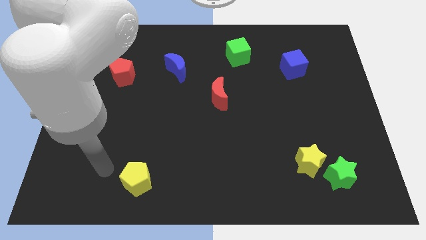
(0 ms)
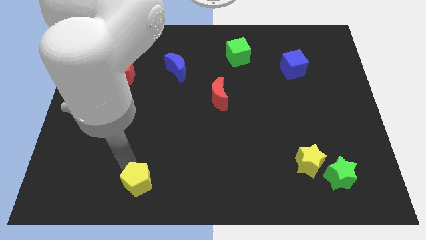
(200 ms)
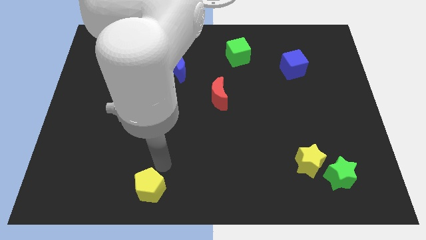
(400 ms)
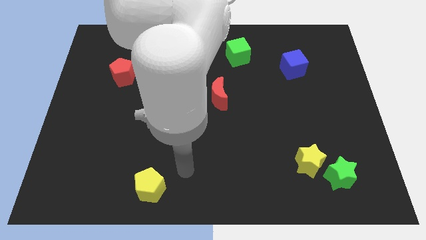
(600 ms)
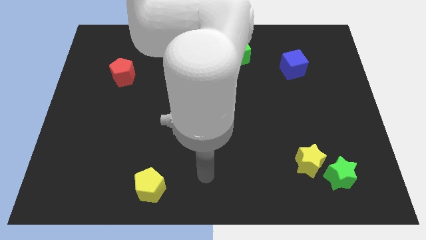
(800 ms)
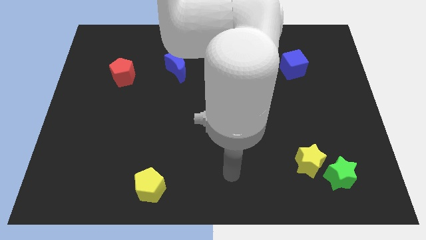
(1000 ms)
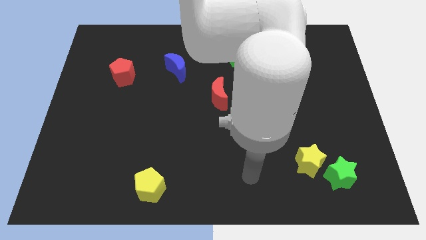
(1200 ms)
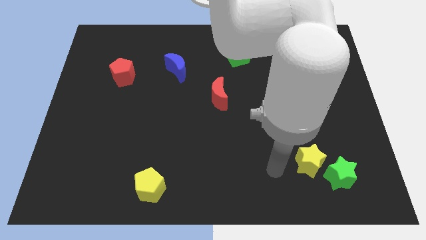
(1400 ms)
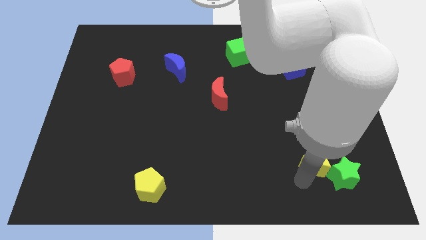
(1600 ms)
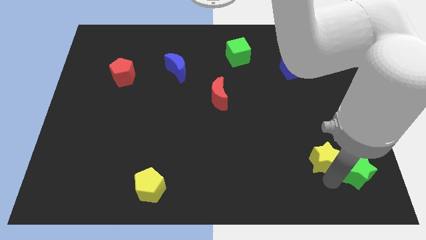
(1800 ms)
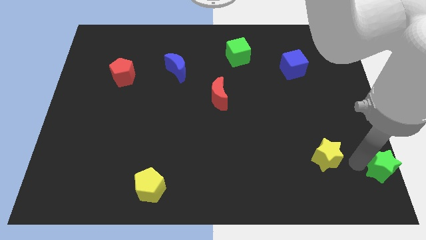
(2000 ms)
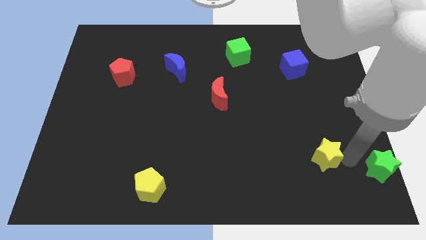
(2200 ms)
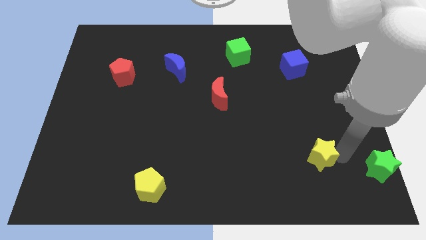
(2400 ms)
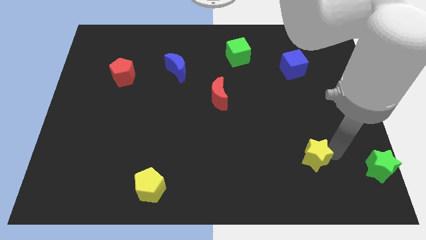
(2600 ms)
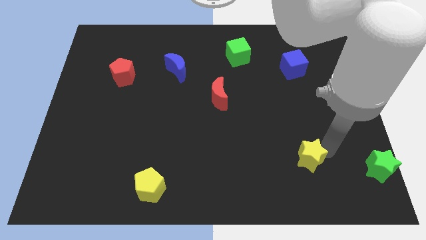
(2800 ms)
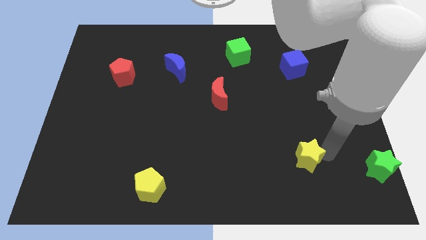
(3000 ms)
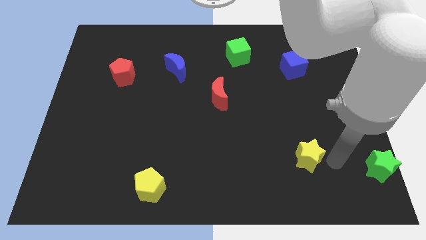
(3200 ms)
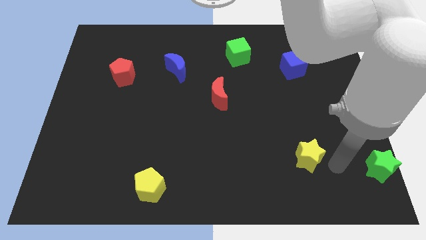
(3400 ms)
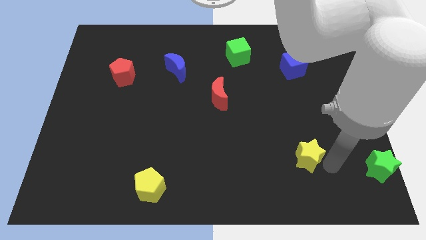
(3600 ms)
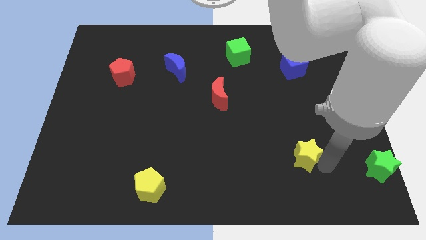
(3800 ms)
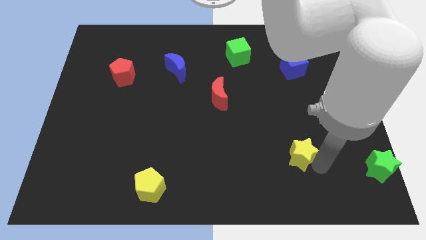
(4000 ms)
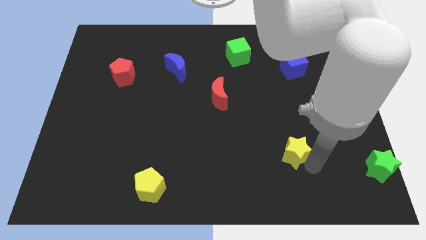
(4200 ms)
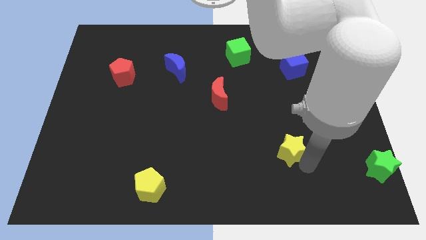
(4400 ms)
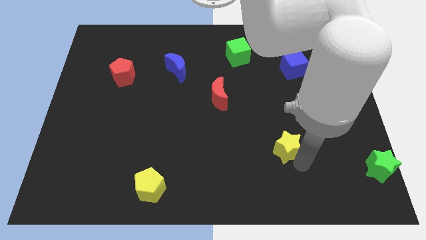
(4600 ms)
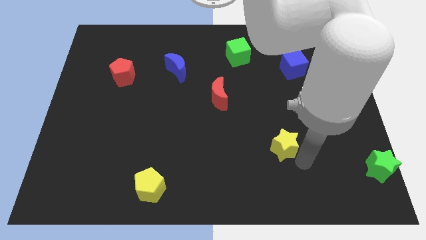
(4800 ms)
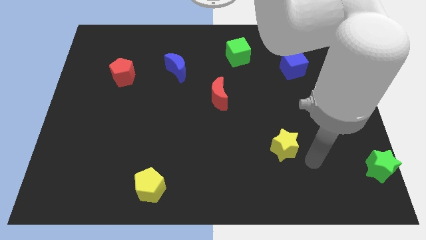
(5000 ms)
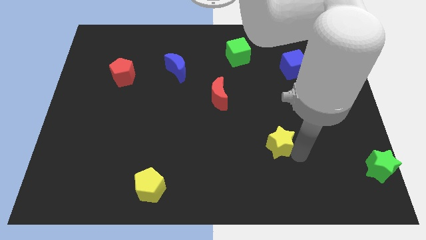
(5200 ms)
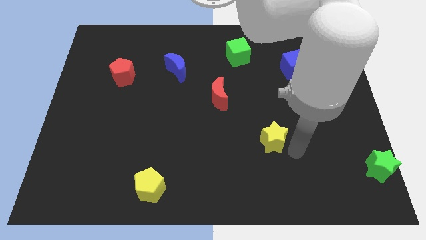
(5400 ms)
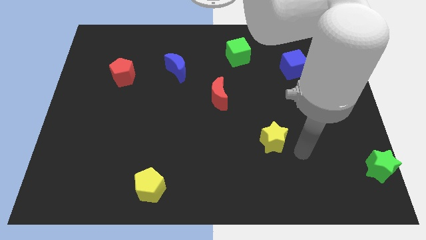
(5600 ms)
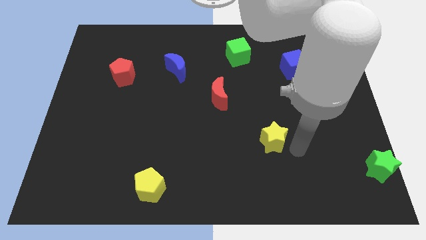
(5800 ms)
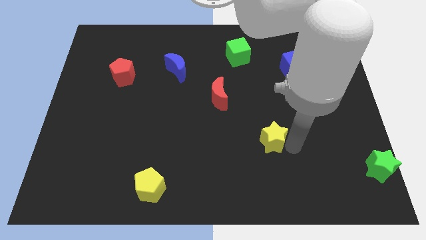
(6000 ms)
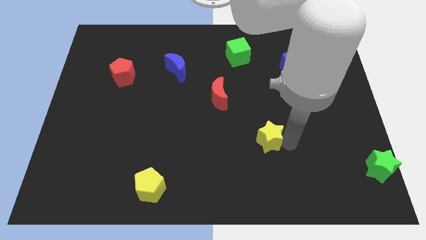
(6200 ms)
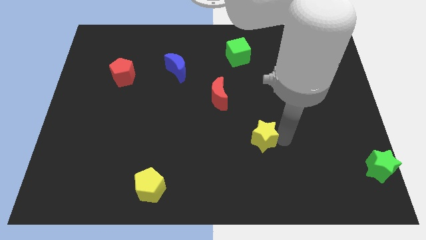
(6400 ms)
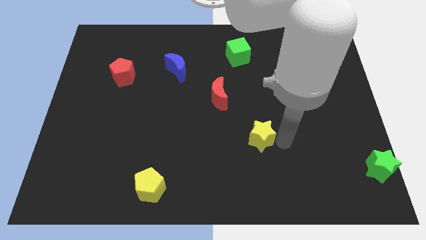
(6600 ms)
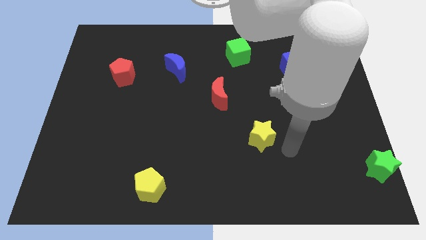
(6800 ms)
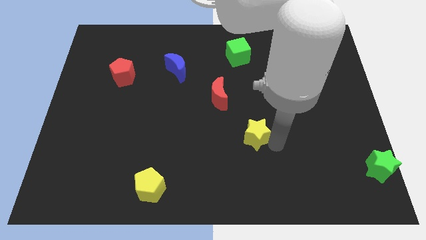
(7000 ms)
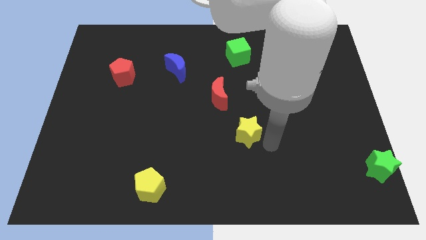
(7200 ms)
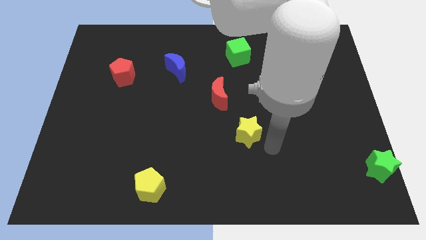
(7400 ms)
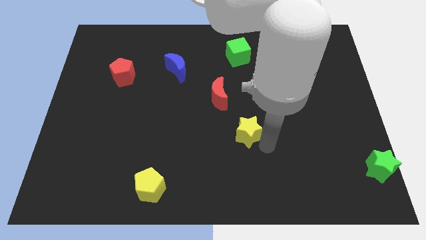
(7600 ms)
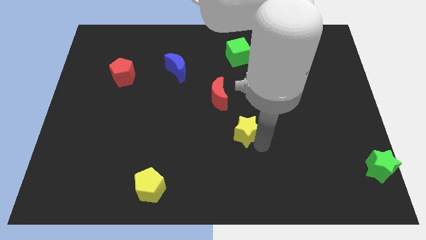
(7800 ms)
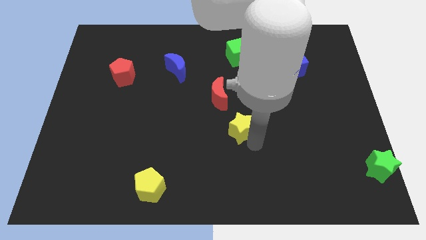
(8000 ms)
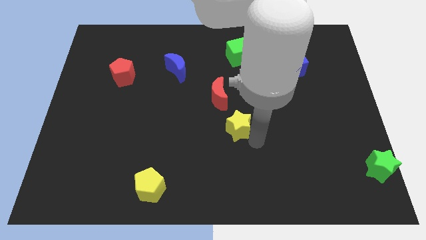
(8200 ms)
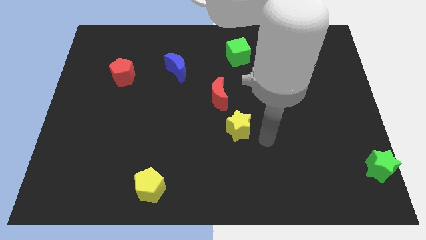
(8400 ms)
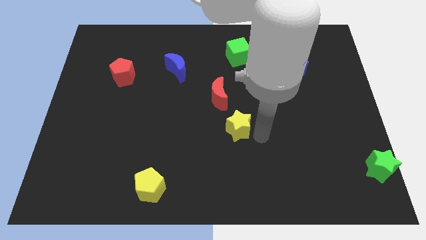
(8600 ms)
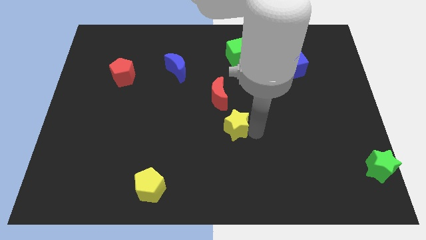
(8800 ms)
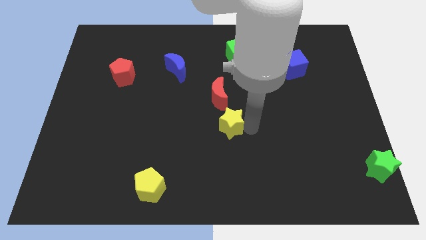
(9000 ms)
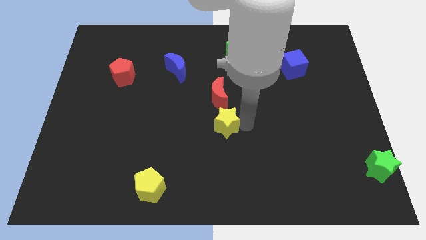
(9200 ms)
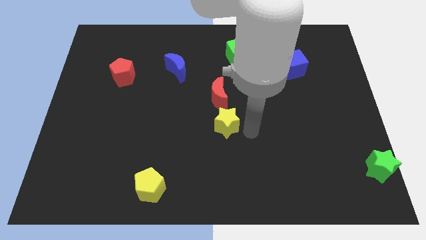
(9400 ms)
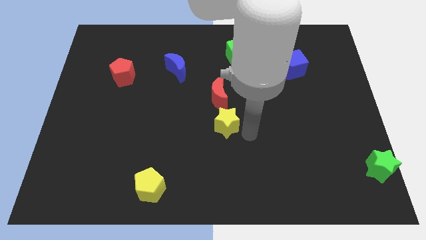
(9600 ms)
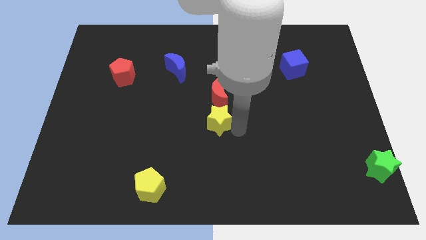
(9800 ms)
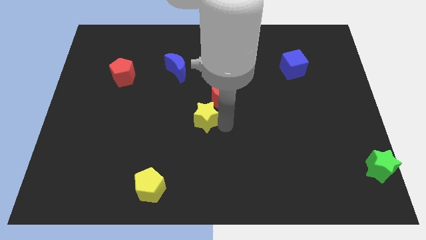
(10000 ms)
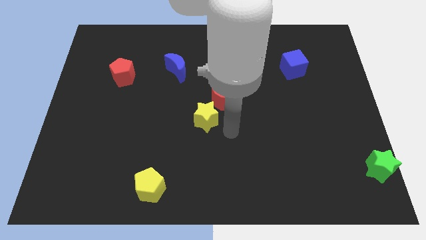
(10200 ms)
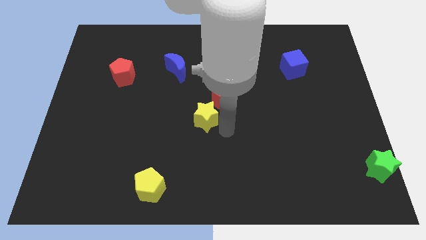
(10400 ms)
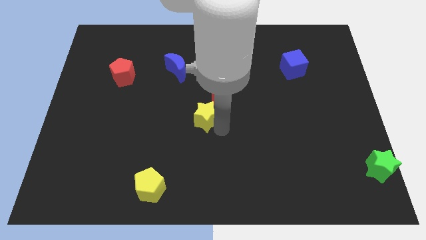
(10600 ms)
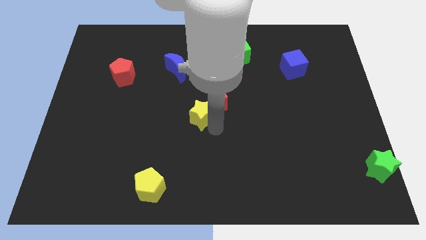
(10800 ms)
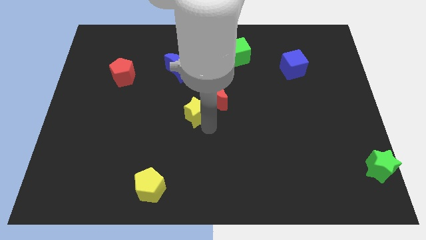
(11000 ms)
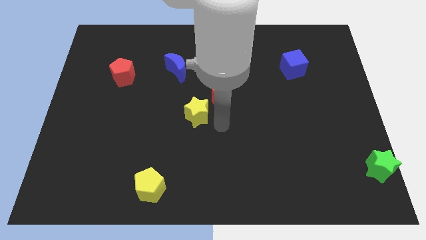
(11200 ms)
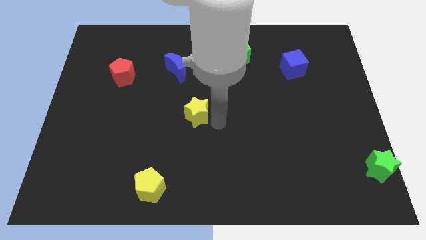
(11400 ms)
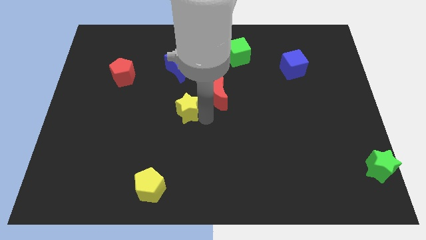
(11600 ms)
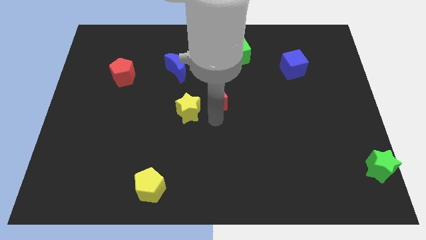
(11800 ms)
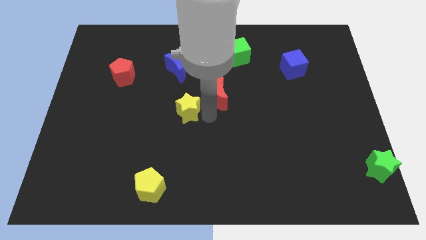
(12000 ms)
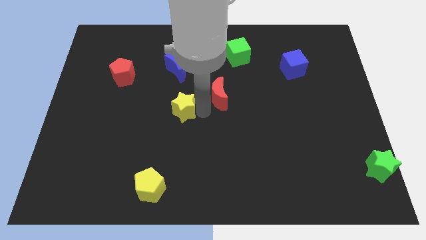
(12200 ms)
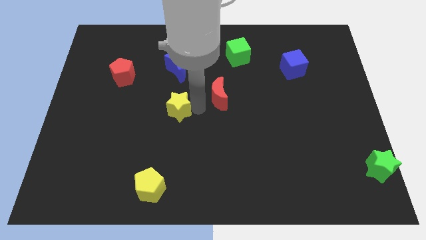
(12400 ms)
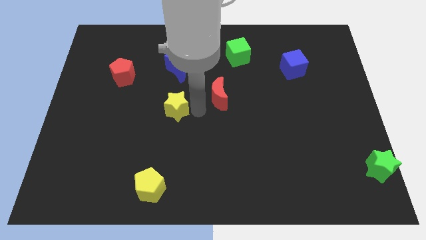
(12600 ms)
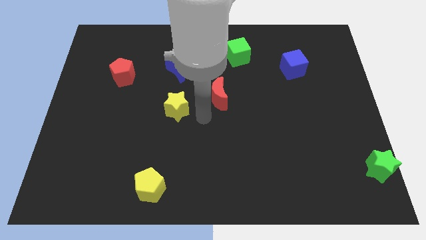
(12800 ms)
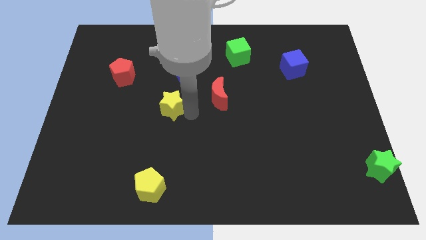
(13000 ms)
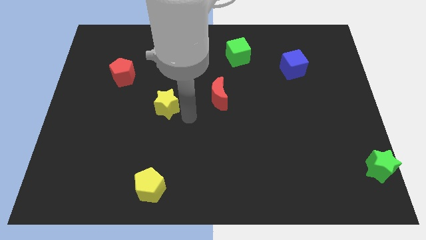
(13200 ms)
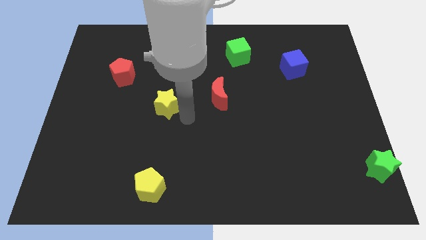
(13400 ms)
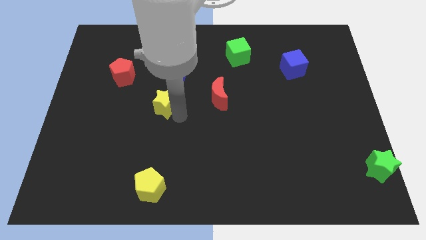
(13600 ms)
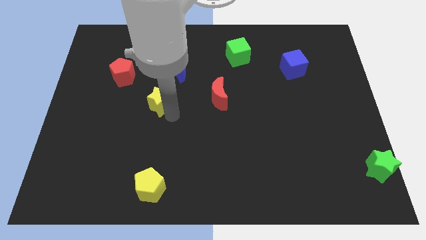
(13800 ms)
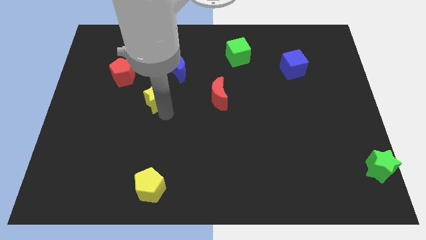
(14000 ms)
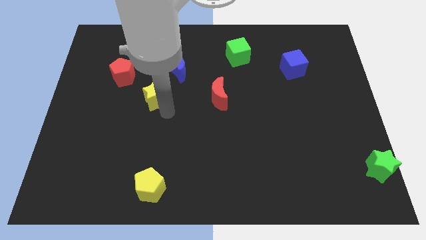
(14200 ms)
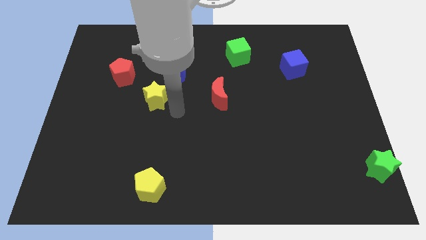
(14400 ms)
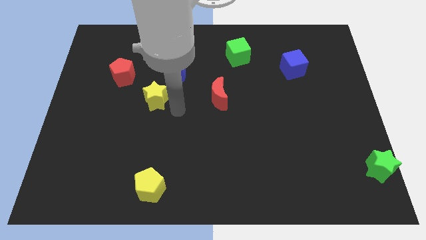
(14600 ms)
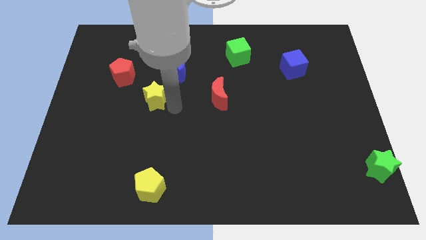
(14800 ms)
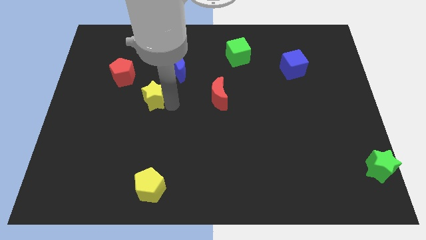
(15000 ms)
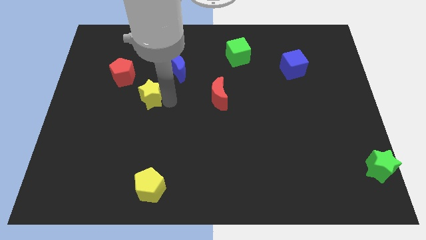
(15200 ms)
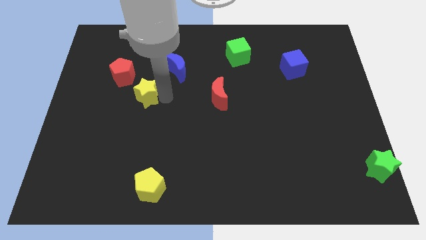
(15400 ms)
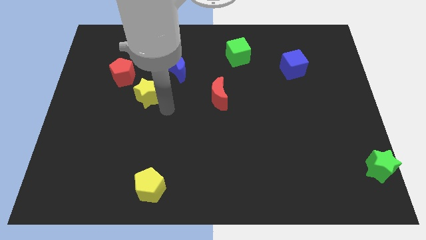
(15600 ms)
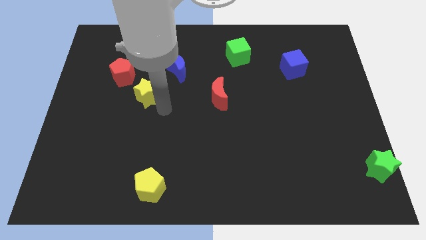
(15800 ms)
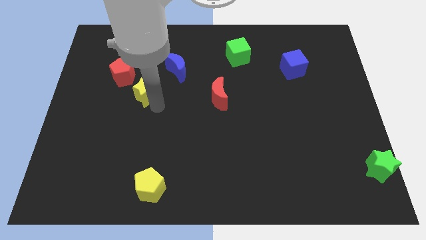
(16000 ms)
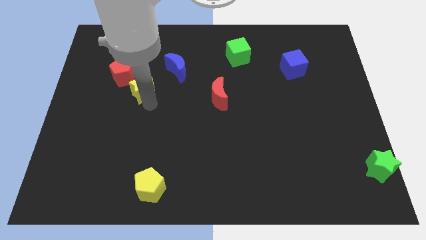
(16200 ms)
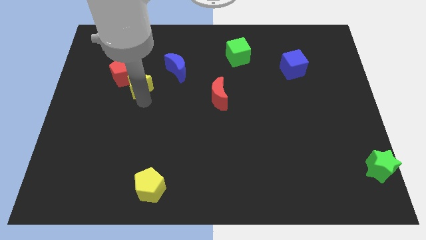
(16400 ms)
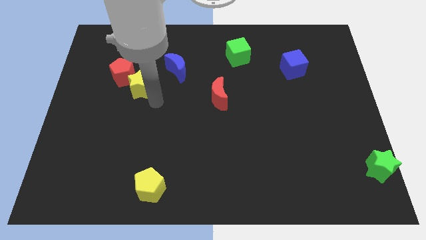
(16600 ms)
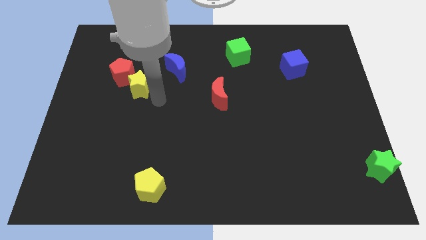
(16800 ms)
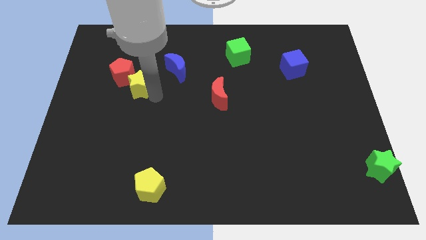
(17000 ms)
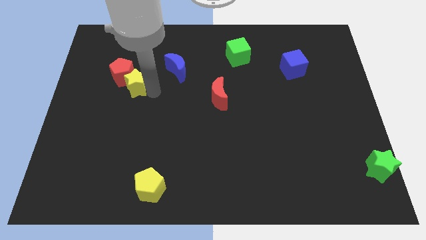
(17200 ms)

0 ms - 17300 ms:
slide the yellow star to the red pentagon
